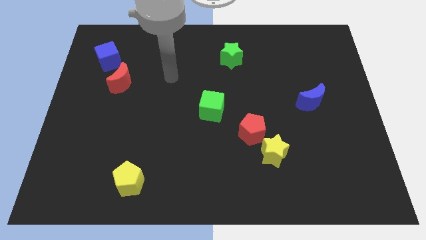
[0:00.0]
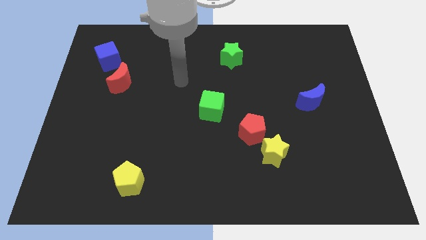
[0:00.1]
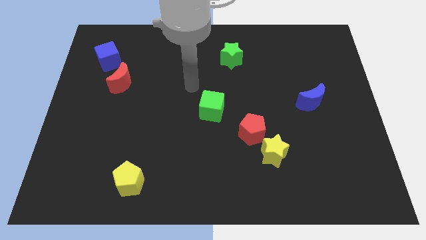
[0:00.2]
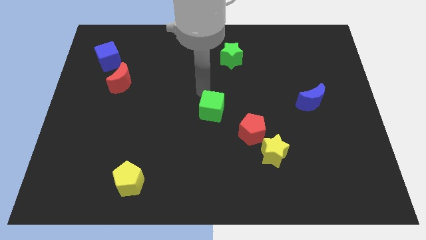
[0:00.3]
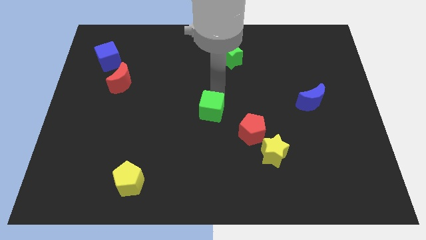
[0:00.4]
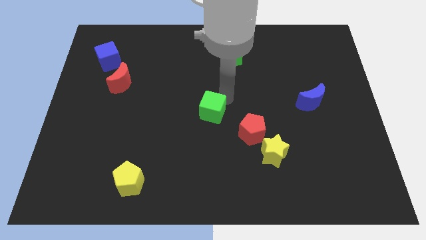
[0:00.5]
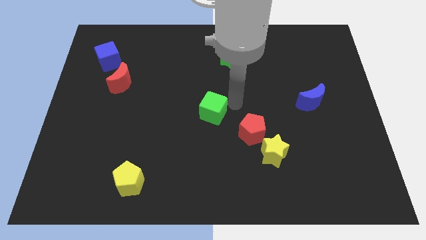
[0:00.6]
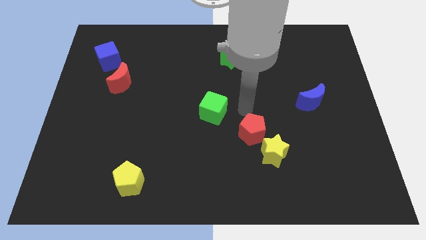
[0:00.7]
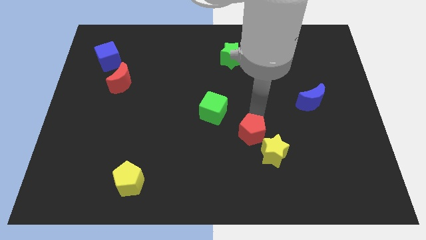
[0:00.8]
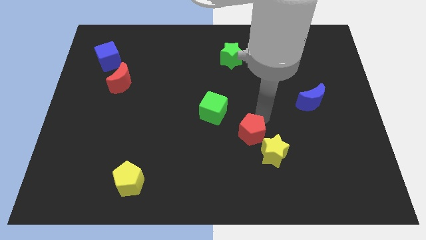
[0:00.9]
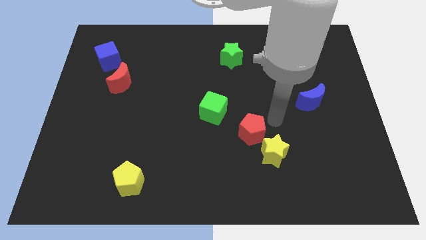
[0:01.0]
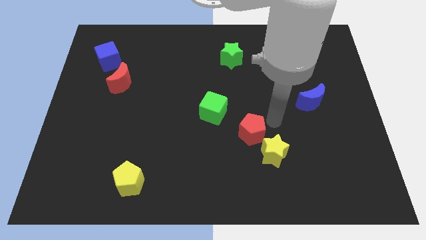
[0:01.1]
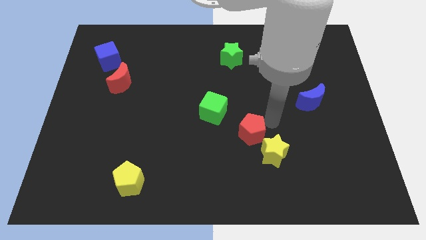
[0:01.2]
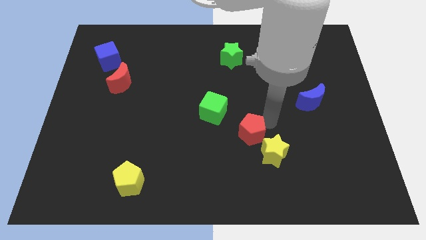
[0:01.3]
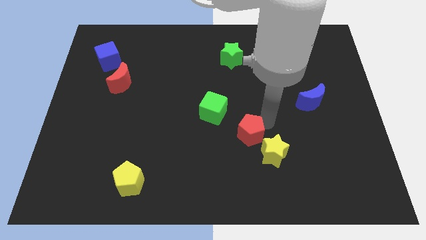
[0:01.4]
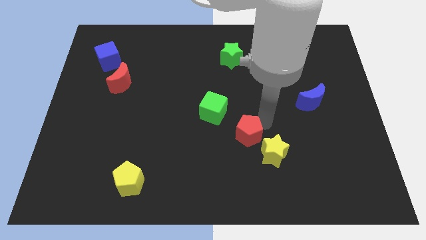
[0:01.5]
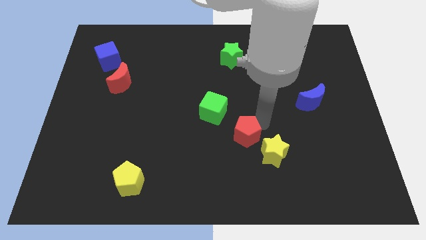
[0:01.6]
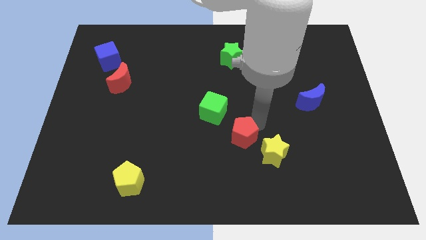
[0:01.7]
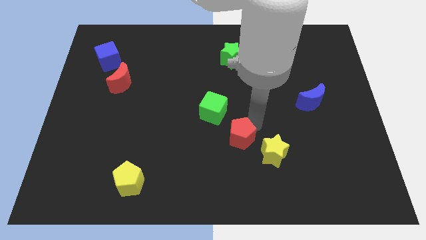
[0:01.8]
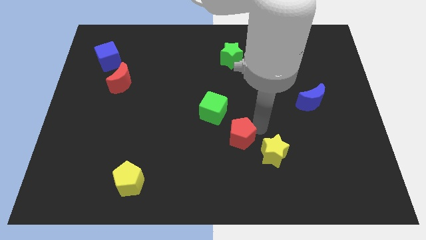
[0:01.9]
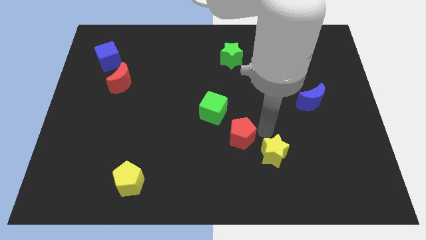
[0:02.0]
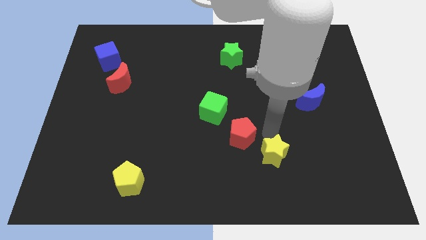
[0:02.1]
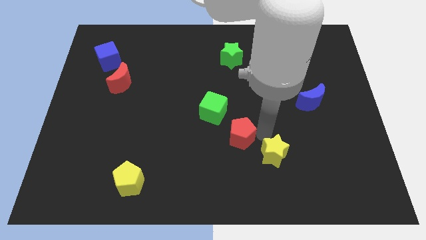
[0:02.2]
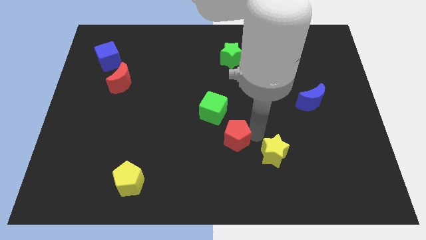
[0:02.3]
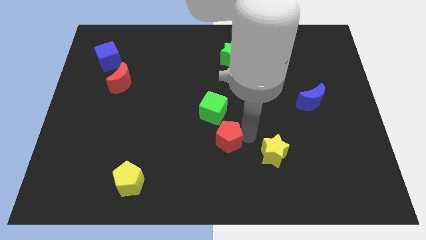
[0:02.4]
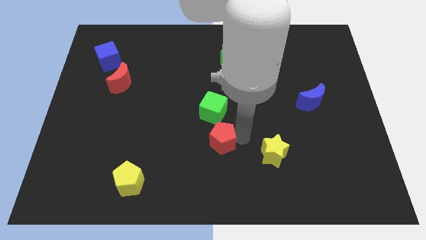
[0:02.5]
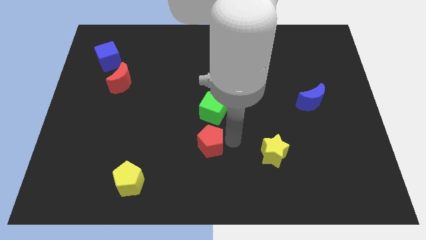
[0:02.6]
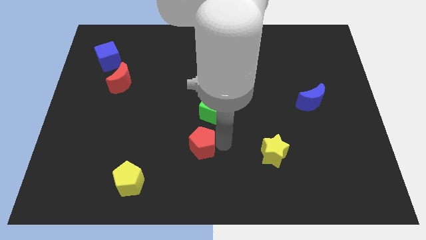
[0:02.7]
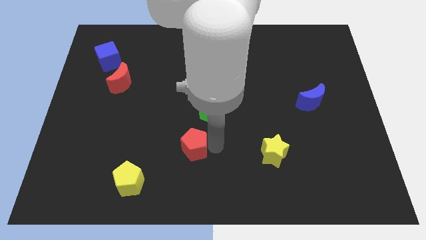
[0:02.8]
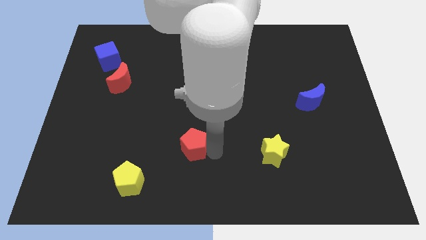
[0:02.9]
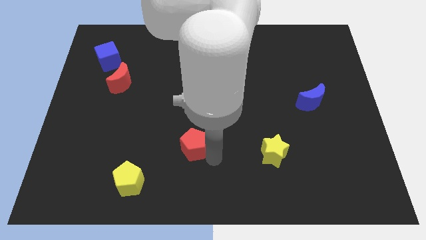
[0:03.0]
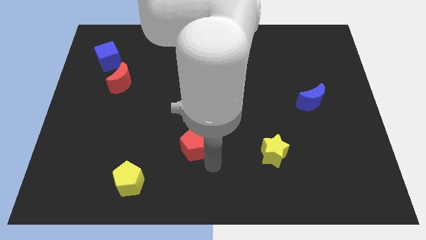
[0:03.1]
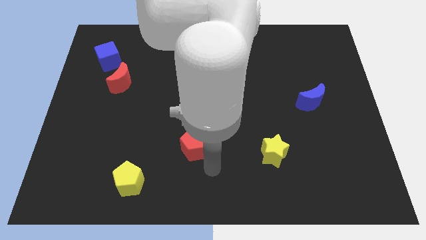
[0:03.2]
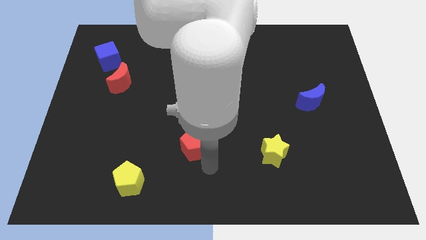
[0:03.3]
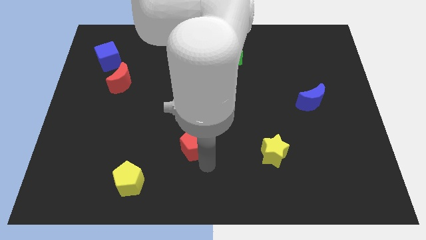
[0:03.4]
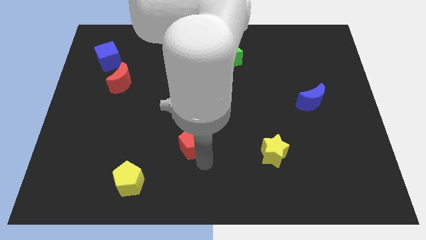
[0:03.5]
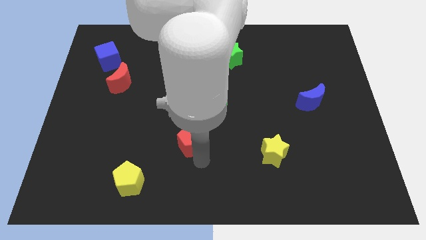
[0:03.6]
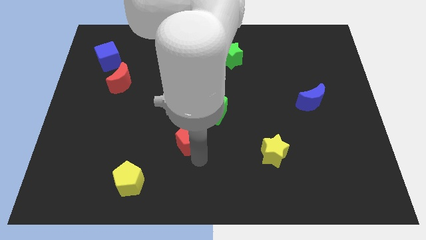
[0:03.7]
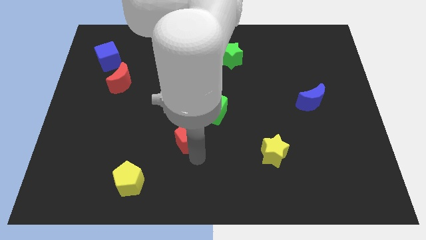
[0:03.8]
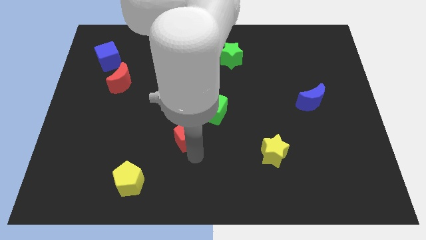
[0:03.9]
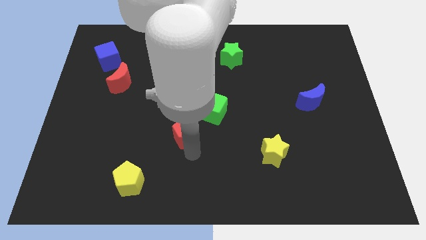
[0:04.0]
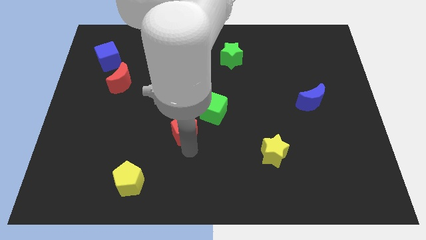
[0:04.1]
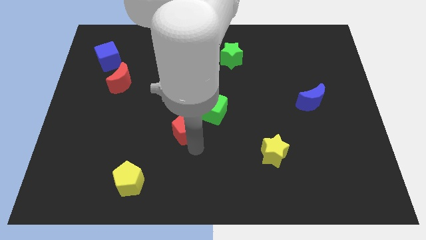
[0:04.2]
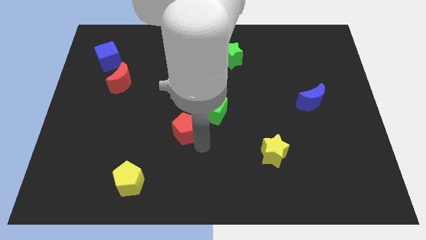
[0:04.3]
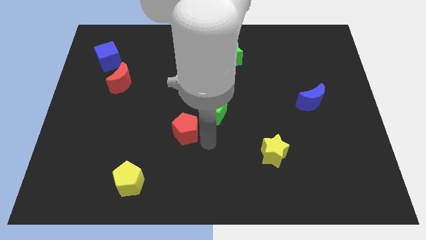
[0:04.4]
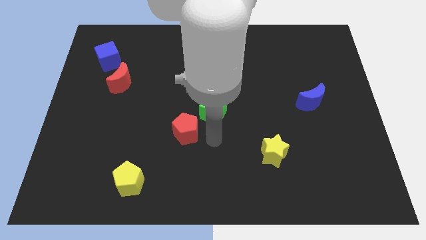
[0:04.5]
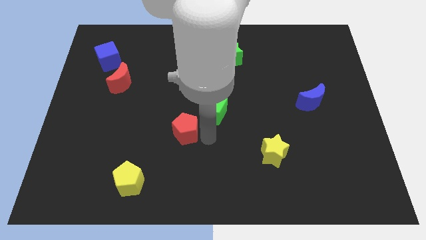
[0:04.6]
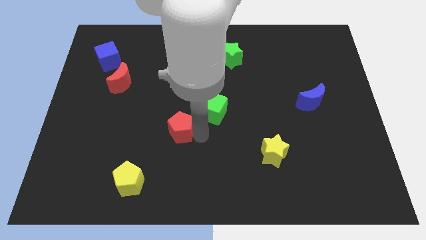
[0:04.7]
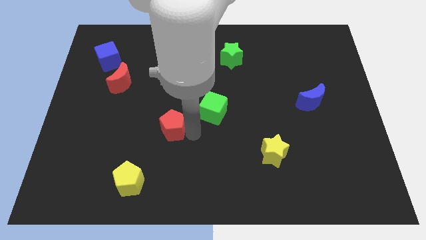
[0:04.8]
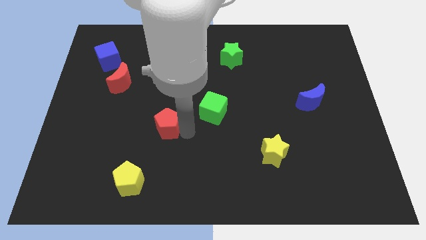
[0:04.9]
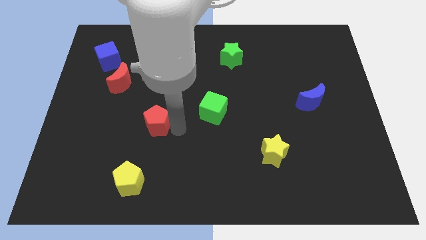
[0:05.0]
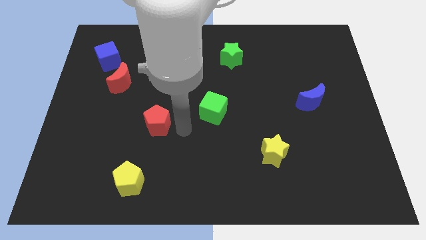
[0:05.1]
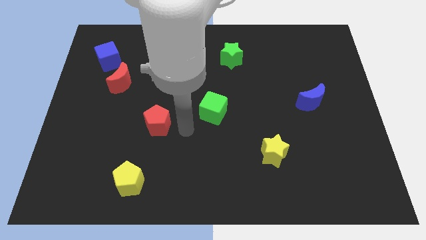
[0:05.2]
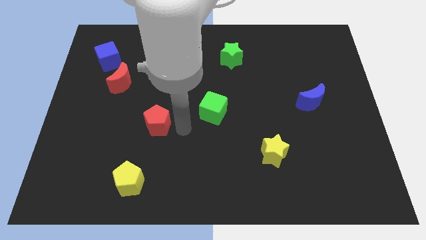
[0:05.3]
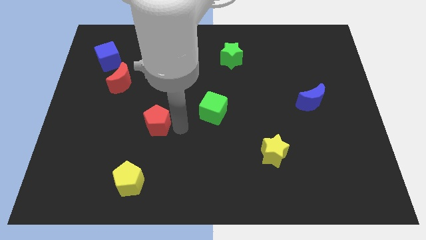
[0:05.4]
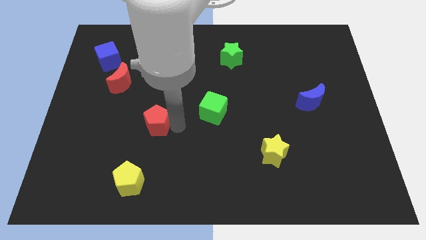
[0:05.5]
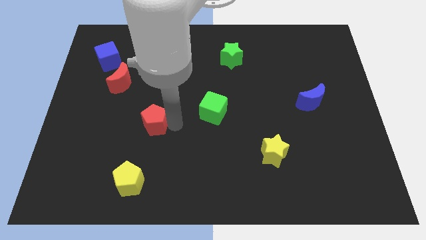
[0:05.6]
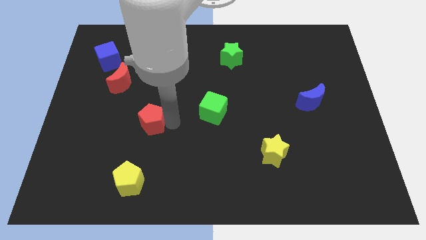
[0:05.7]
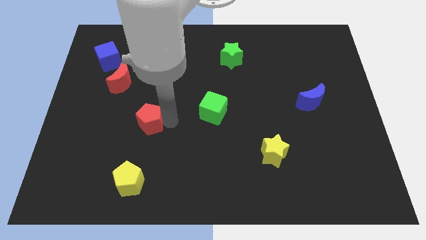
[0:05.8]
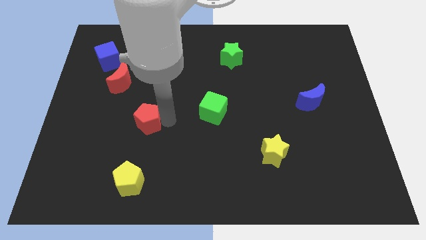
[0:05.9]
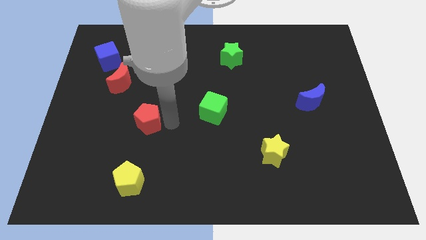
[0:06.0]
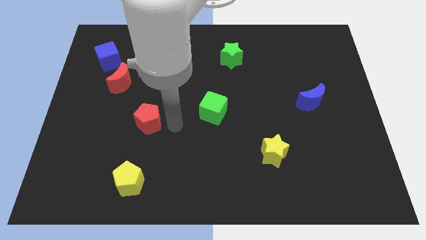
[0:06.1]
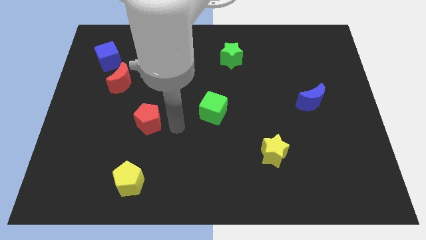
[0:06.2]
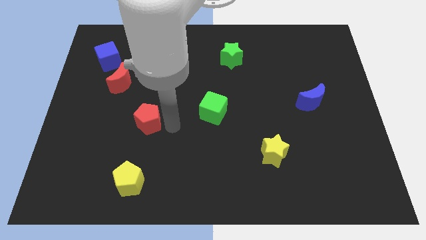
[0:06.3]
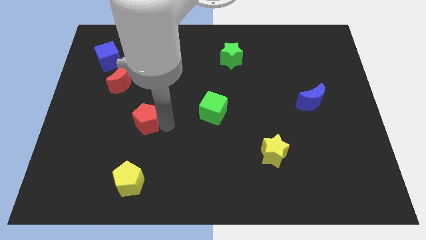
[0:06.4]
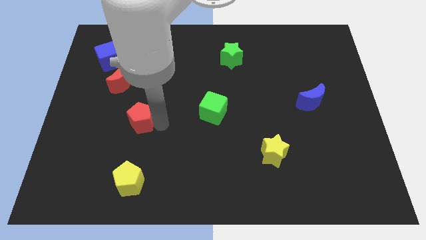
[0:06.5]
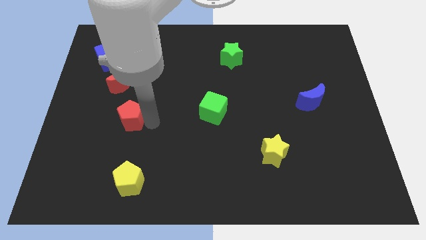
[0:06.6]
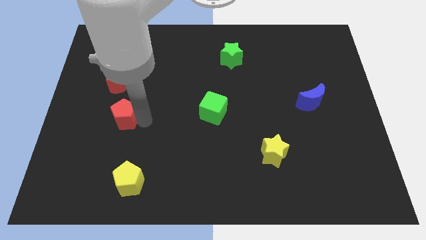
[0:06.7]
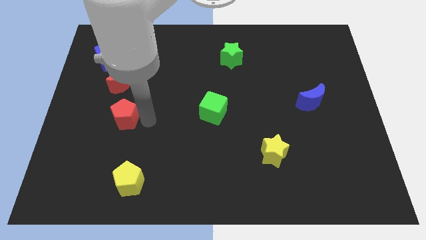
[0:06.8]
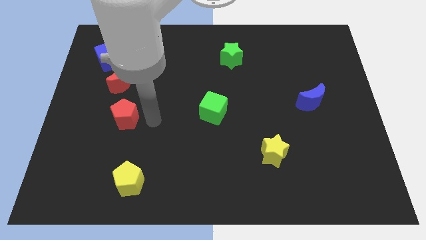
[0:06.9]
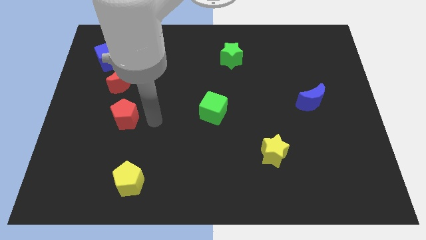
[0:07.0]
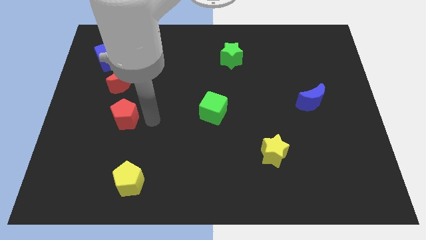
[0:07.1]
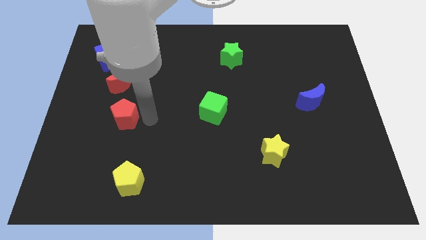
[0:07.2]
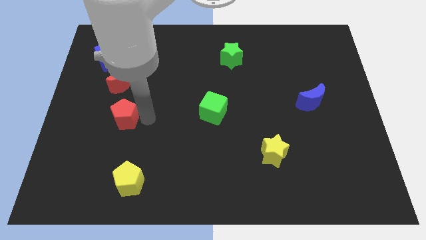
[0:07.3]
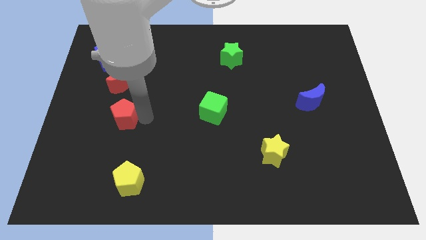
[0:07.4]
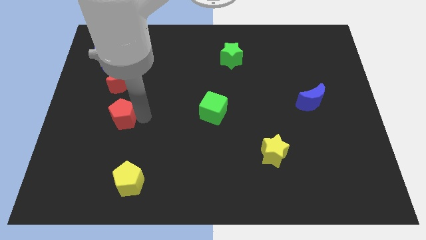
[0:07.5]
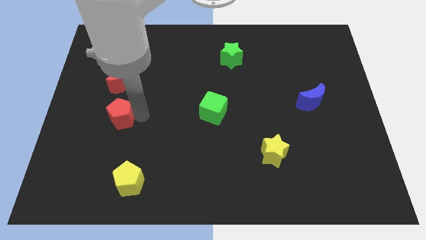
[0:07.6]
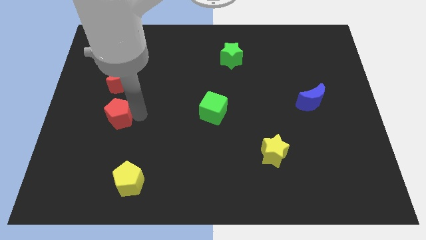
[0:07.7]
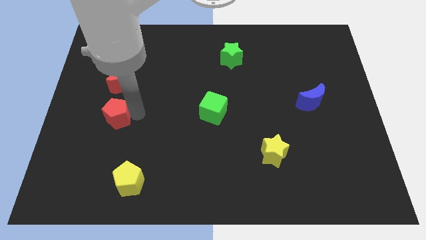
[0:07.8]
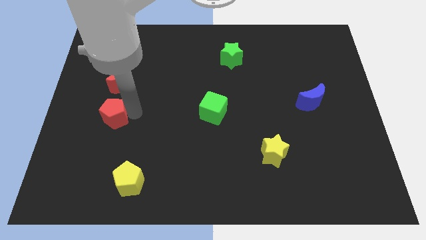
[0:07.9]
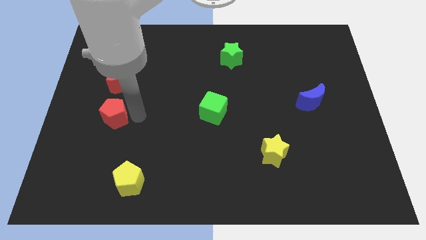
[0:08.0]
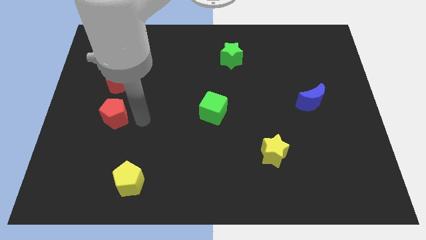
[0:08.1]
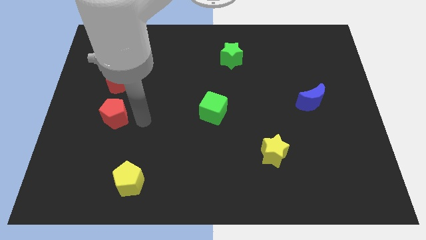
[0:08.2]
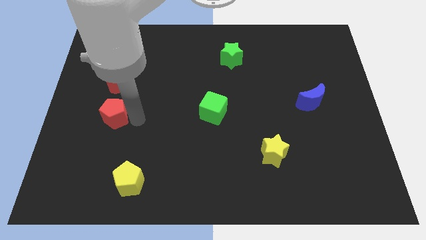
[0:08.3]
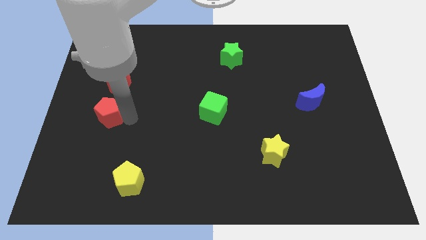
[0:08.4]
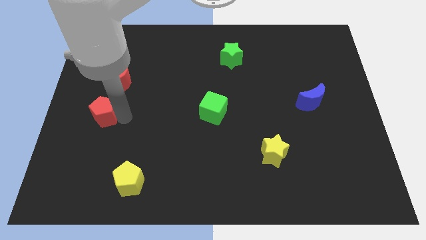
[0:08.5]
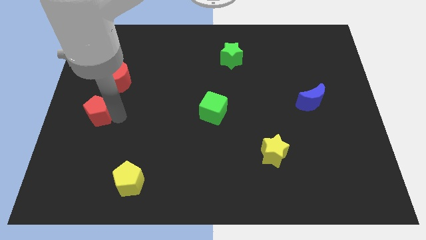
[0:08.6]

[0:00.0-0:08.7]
move the red pentagon to the left side of the board
